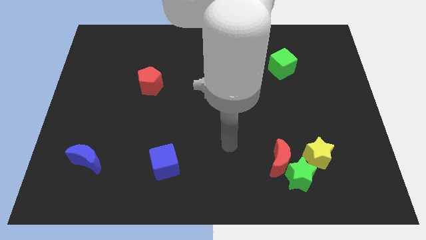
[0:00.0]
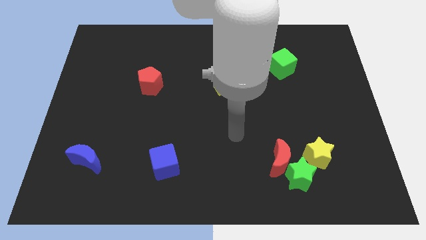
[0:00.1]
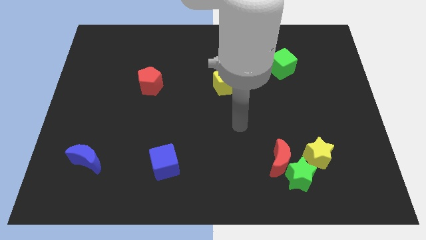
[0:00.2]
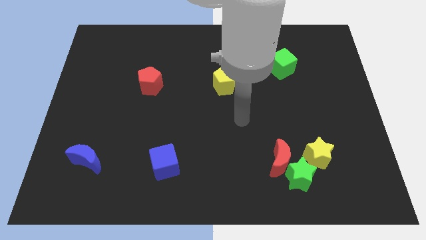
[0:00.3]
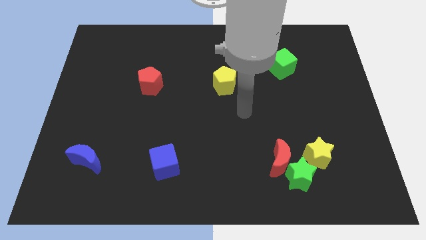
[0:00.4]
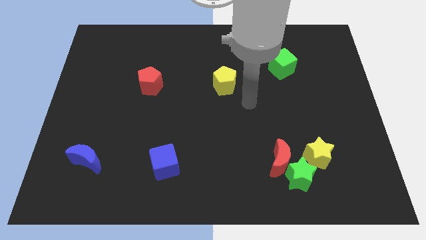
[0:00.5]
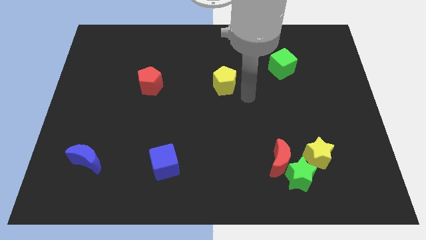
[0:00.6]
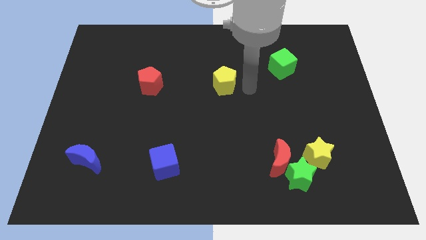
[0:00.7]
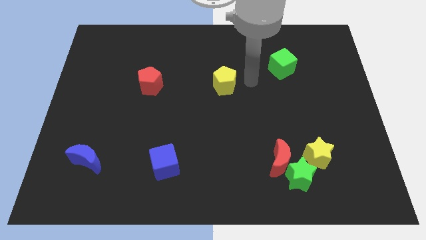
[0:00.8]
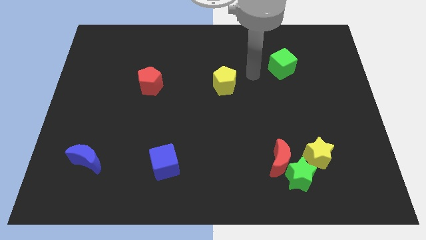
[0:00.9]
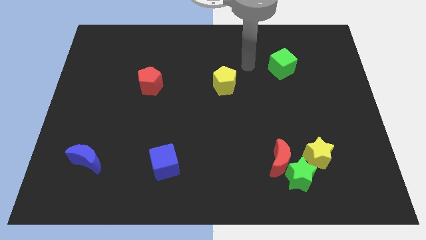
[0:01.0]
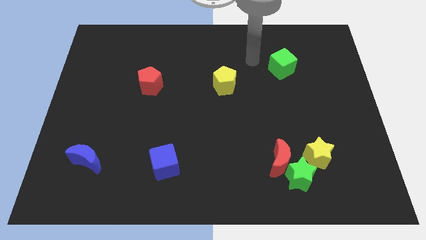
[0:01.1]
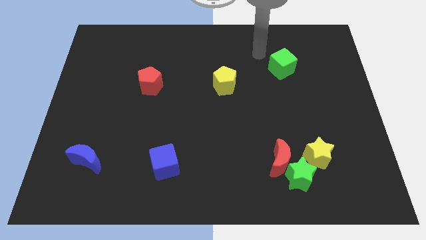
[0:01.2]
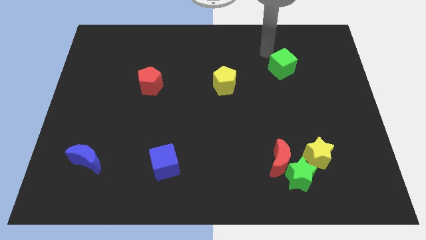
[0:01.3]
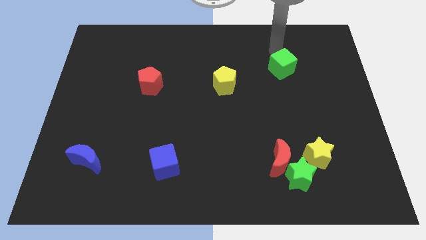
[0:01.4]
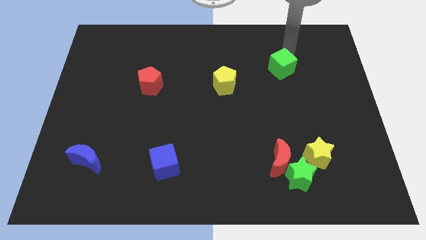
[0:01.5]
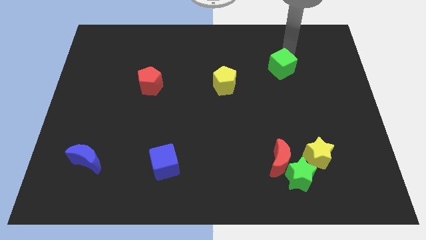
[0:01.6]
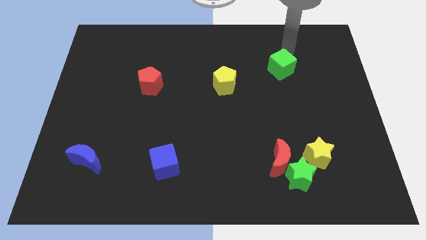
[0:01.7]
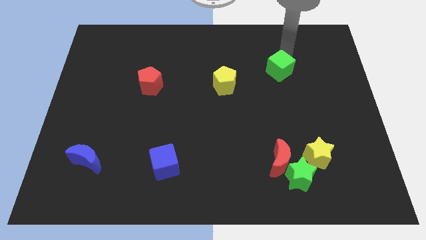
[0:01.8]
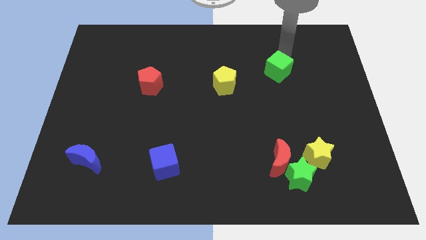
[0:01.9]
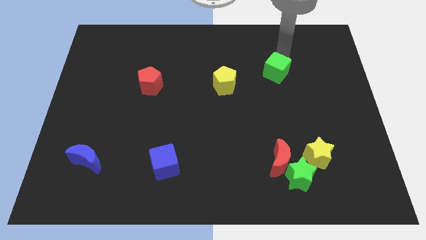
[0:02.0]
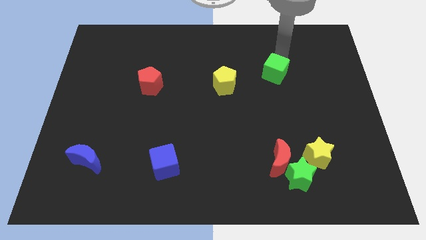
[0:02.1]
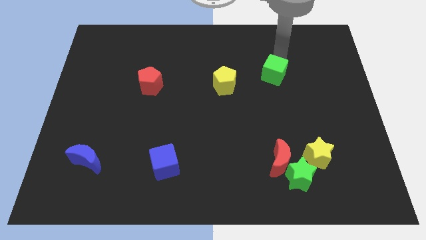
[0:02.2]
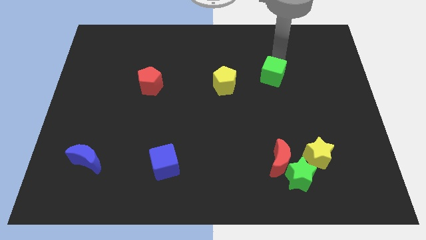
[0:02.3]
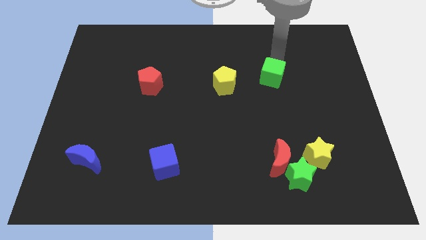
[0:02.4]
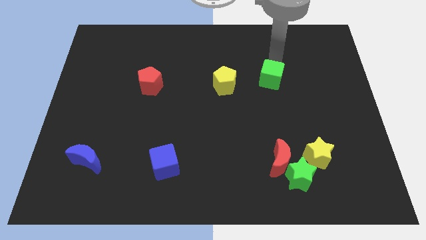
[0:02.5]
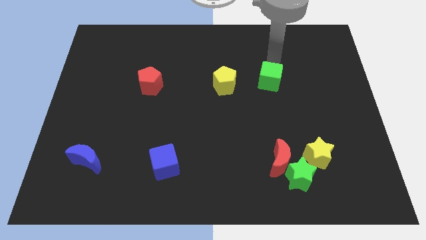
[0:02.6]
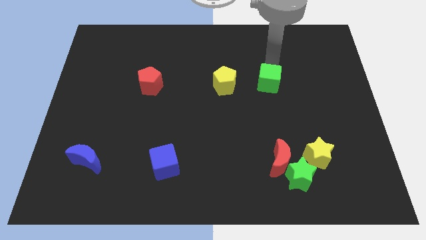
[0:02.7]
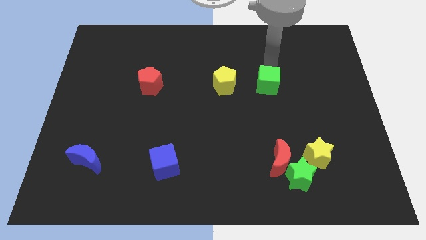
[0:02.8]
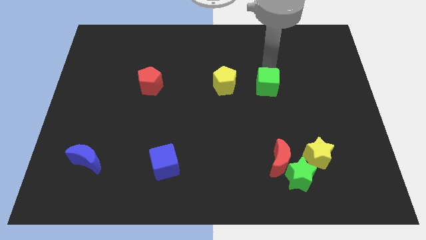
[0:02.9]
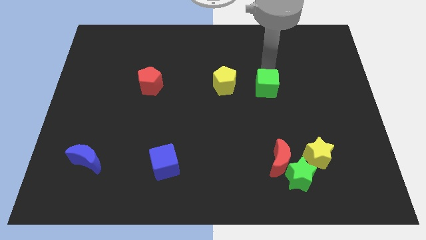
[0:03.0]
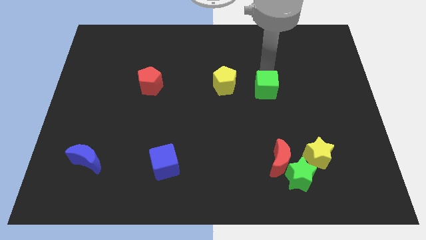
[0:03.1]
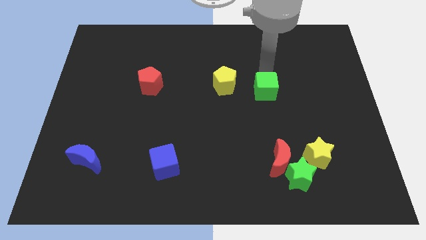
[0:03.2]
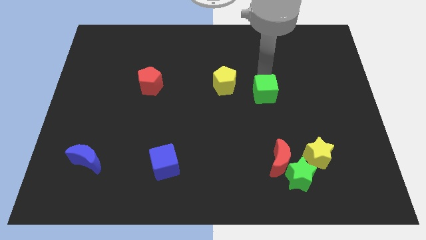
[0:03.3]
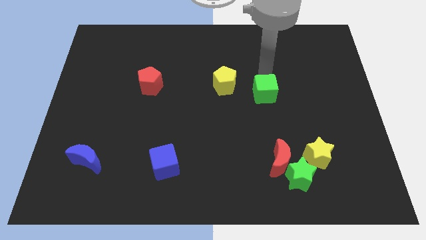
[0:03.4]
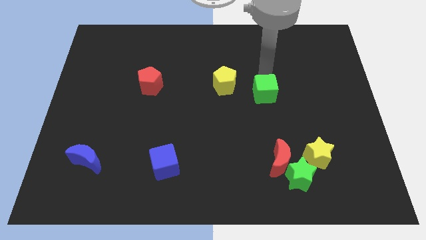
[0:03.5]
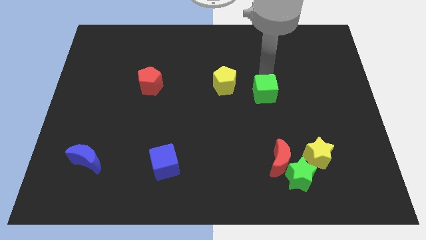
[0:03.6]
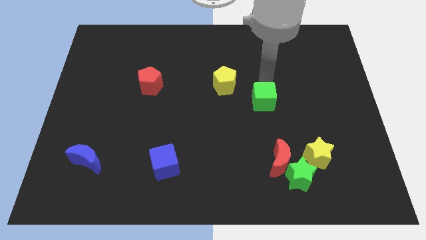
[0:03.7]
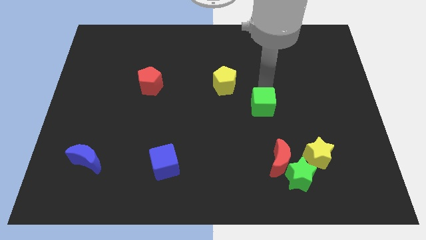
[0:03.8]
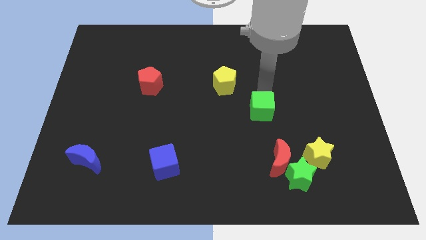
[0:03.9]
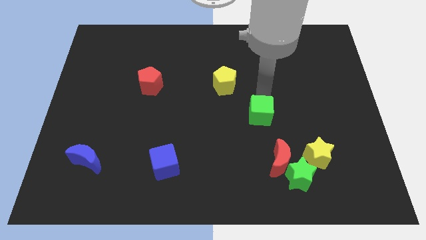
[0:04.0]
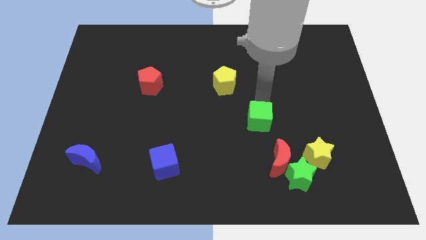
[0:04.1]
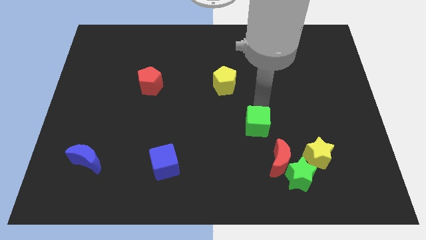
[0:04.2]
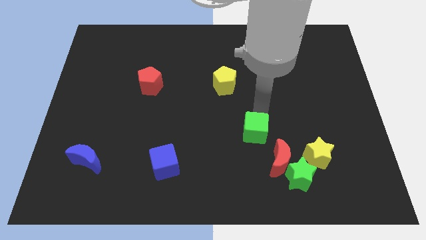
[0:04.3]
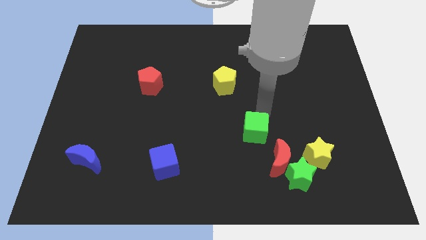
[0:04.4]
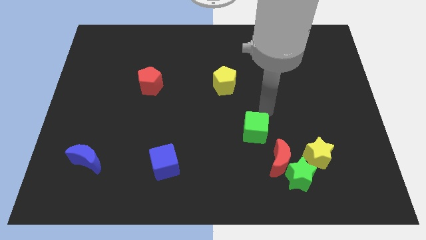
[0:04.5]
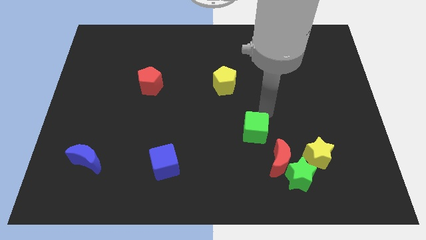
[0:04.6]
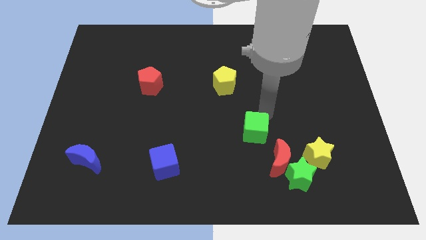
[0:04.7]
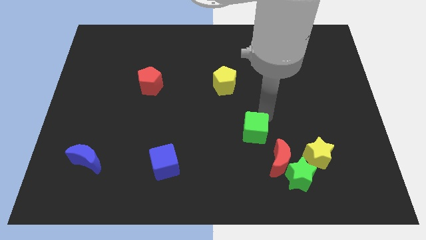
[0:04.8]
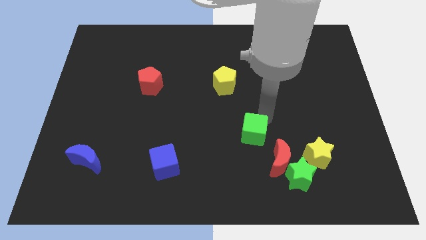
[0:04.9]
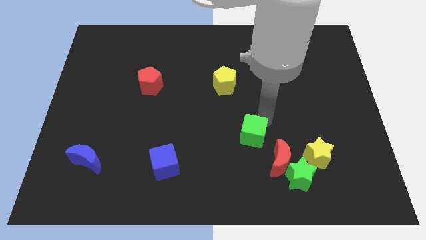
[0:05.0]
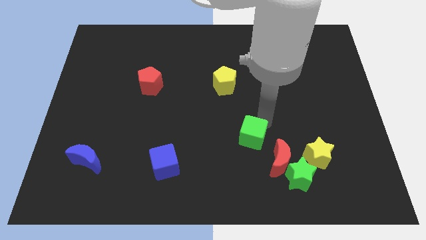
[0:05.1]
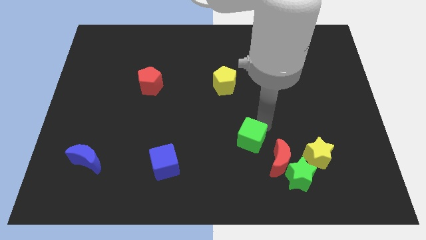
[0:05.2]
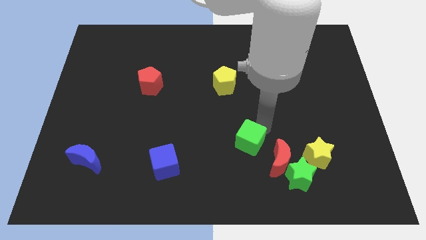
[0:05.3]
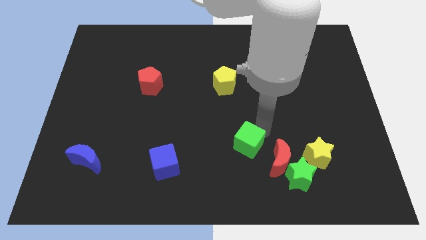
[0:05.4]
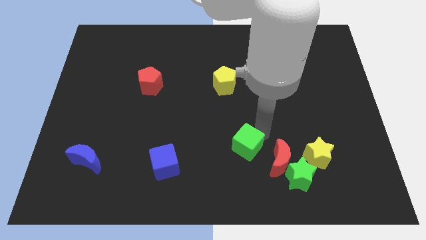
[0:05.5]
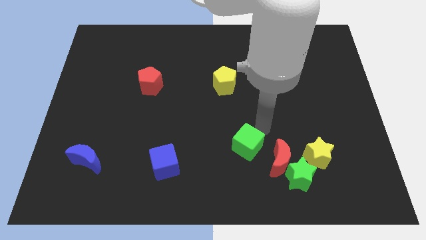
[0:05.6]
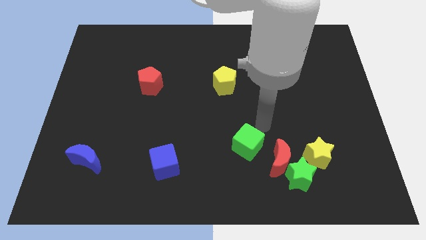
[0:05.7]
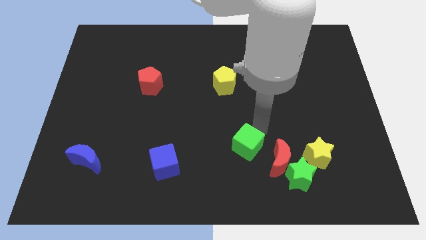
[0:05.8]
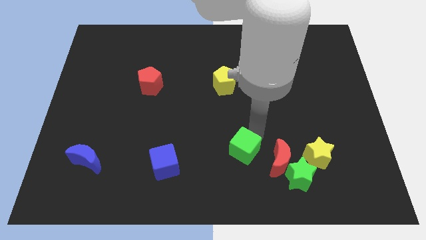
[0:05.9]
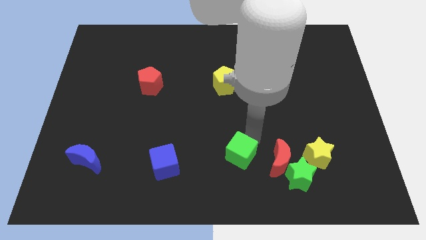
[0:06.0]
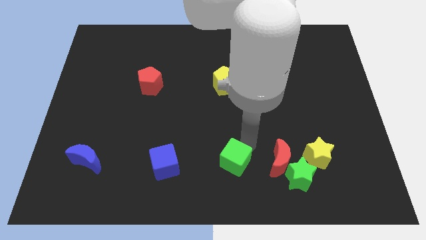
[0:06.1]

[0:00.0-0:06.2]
put the green cube to the bottom side
